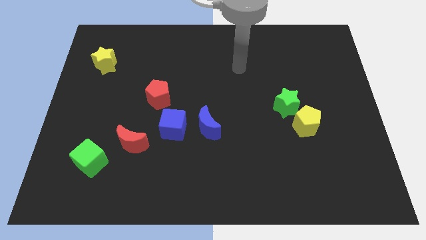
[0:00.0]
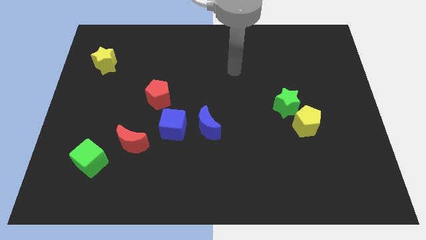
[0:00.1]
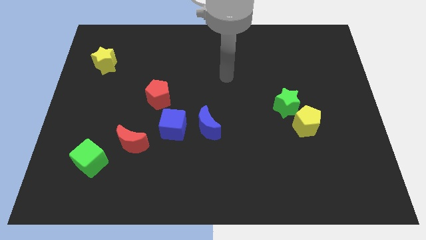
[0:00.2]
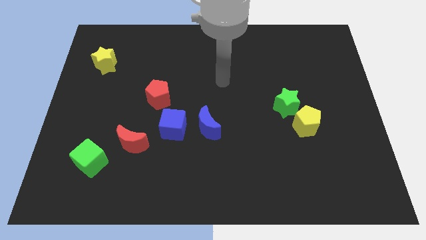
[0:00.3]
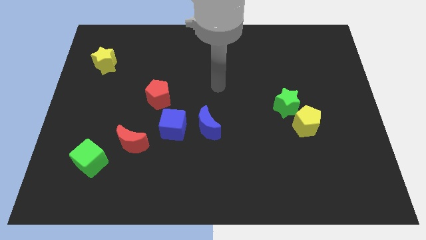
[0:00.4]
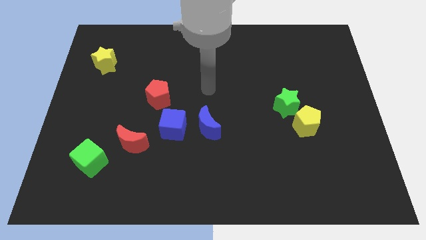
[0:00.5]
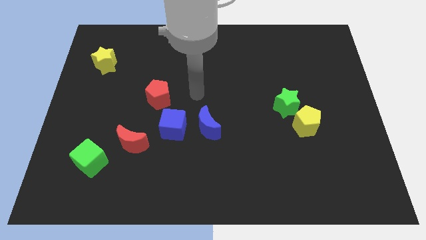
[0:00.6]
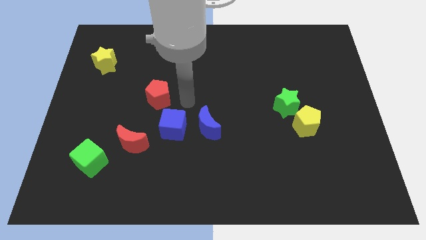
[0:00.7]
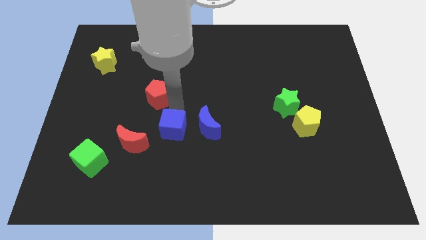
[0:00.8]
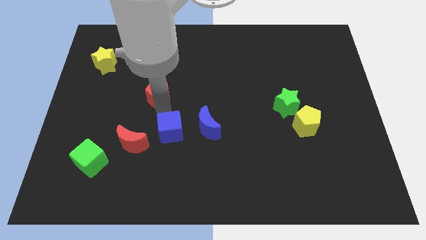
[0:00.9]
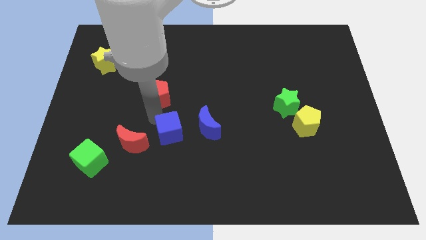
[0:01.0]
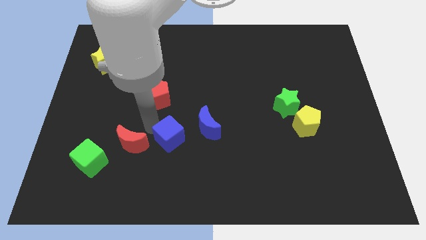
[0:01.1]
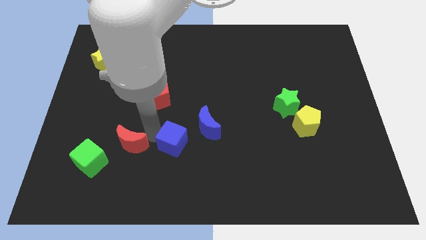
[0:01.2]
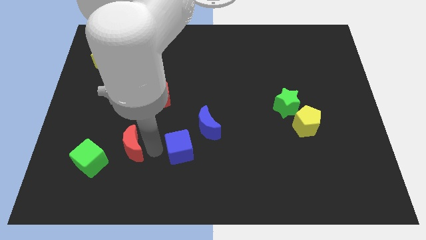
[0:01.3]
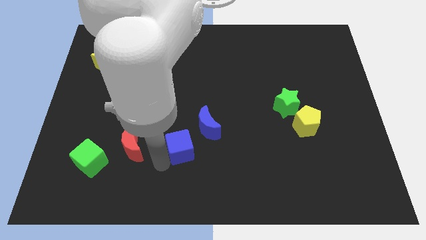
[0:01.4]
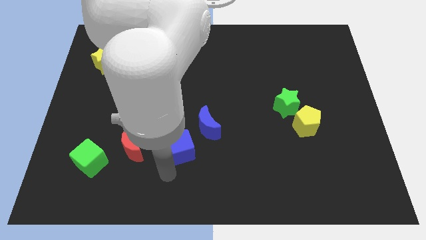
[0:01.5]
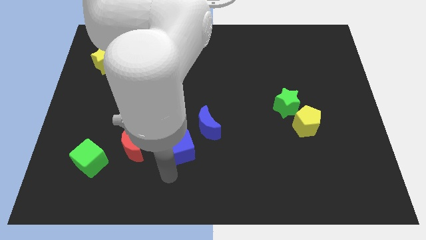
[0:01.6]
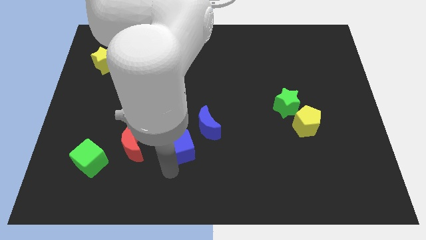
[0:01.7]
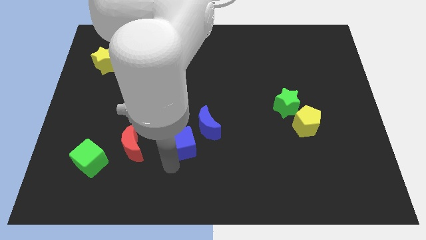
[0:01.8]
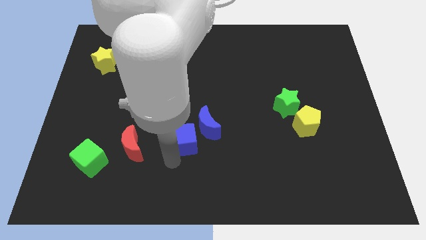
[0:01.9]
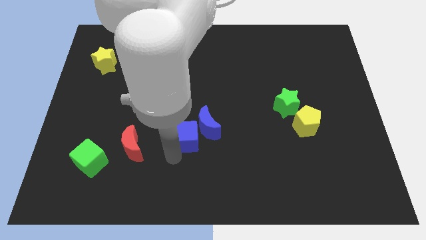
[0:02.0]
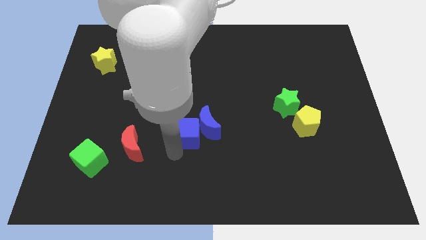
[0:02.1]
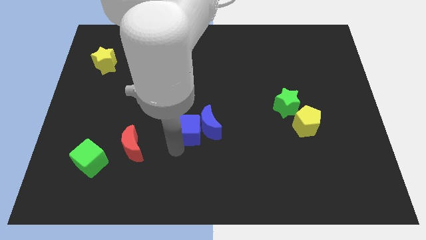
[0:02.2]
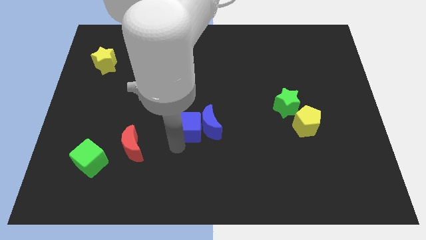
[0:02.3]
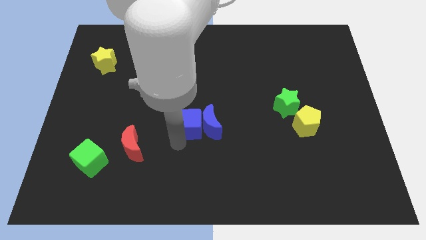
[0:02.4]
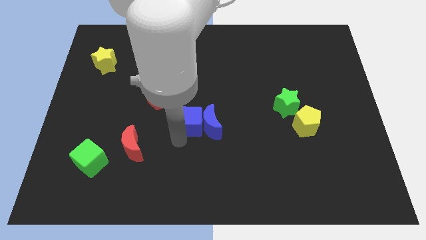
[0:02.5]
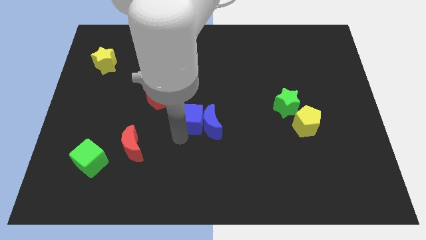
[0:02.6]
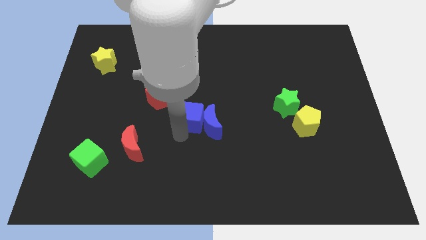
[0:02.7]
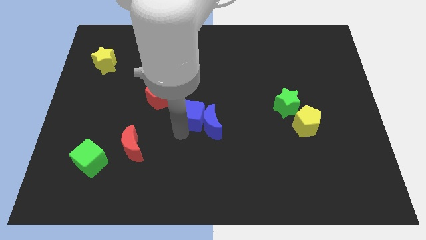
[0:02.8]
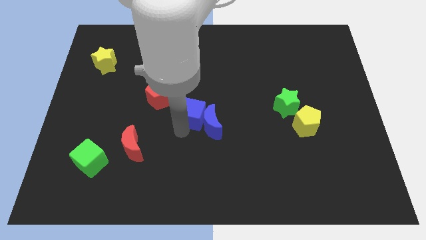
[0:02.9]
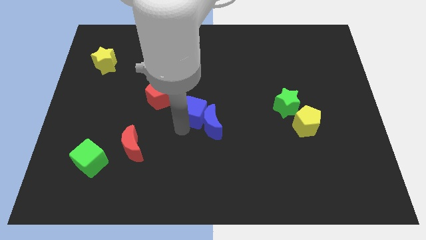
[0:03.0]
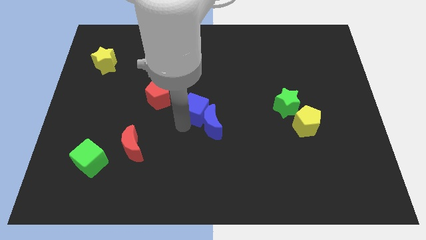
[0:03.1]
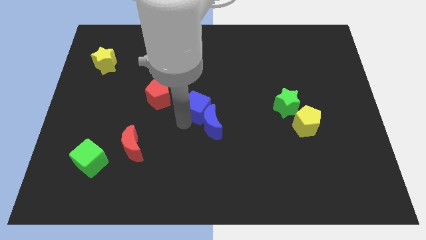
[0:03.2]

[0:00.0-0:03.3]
push the blue cube up and then right slightly

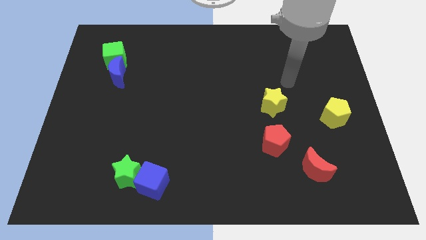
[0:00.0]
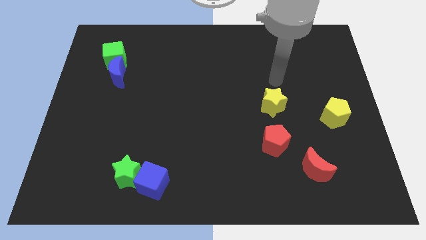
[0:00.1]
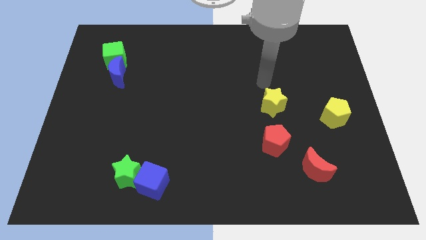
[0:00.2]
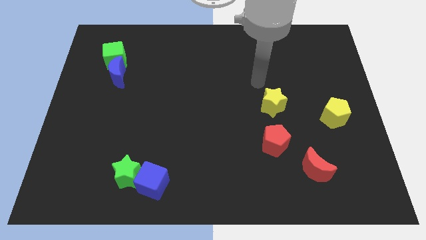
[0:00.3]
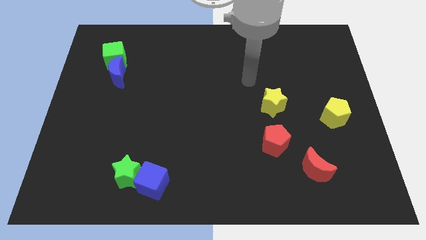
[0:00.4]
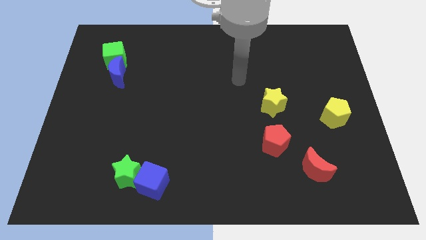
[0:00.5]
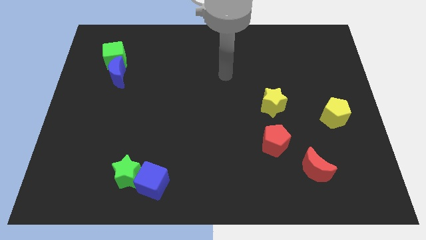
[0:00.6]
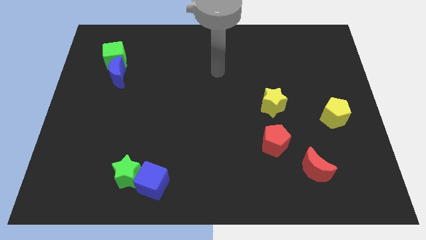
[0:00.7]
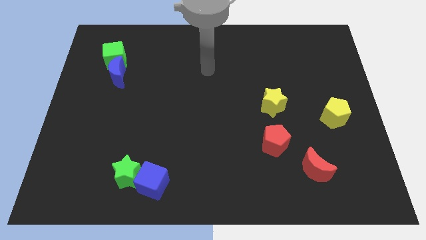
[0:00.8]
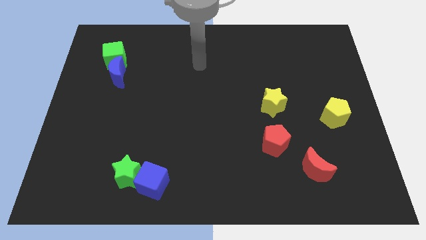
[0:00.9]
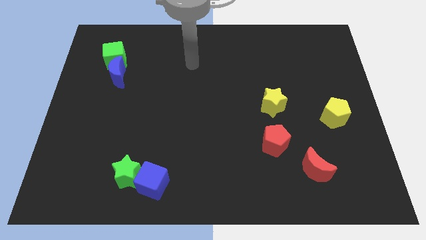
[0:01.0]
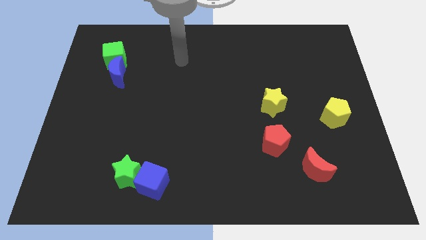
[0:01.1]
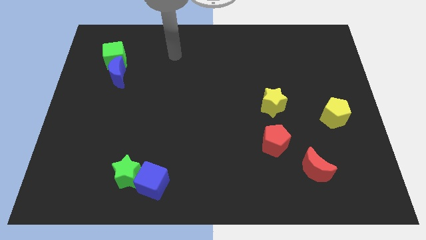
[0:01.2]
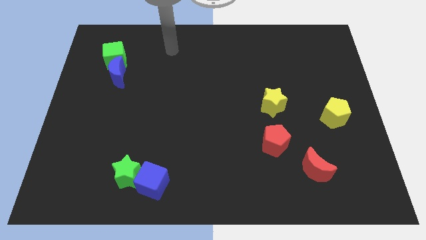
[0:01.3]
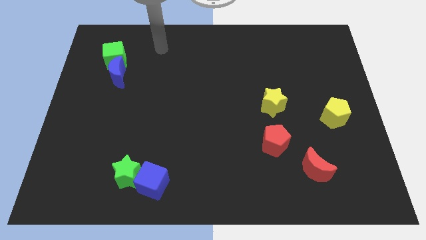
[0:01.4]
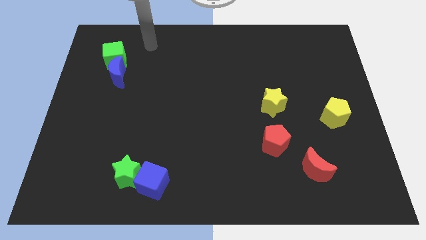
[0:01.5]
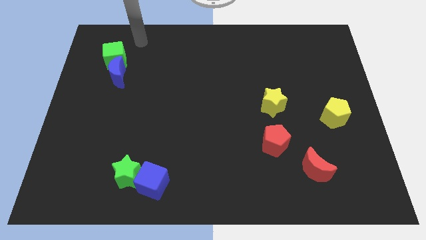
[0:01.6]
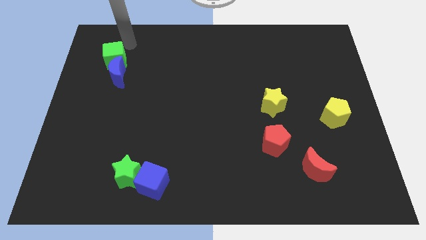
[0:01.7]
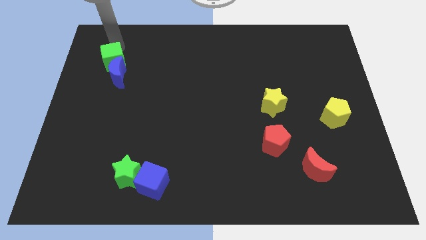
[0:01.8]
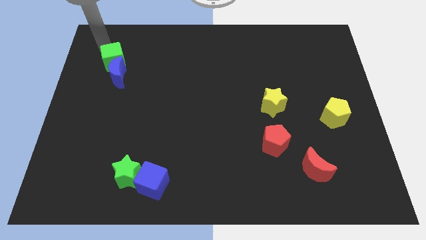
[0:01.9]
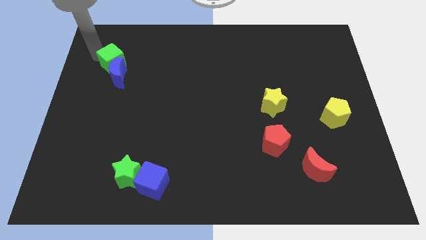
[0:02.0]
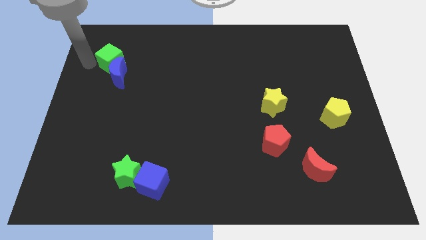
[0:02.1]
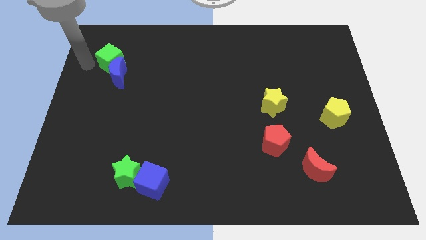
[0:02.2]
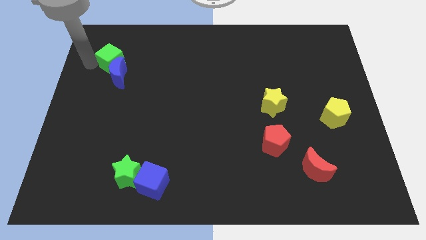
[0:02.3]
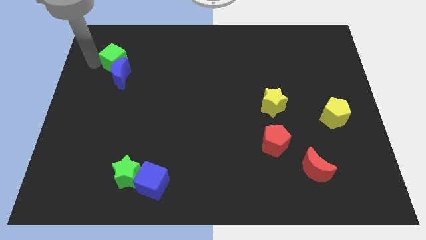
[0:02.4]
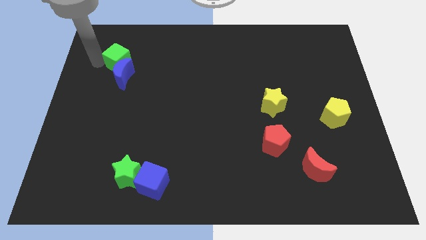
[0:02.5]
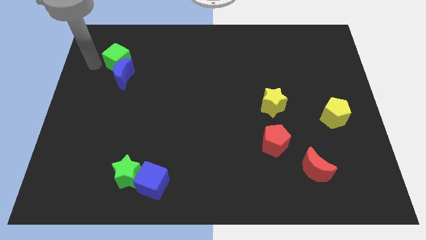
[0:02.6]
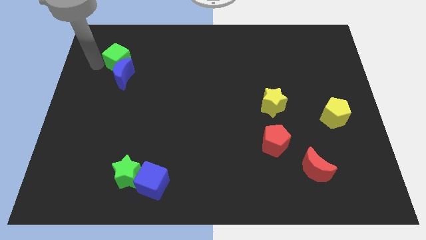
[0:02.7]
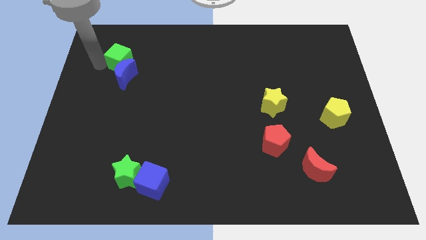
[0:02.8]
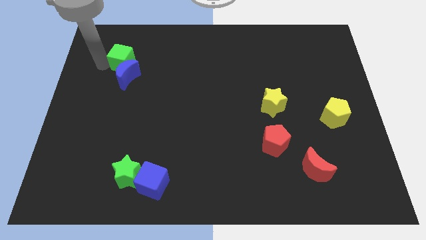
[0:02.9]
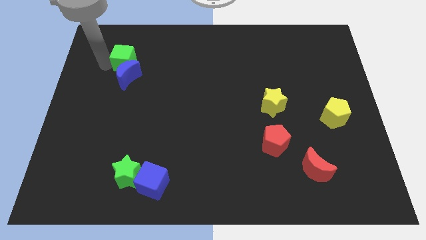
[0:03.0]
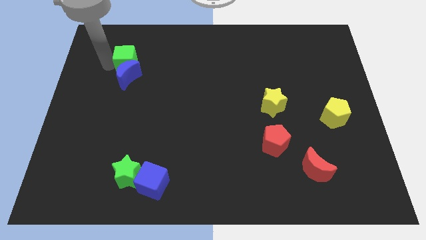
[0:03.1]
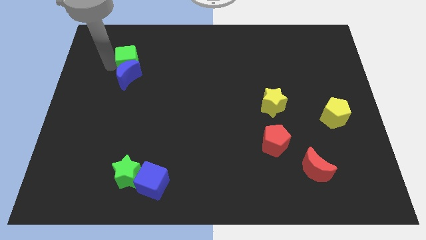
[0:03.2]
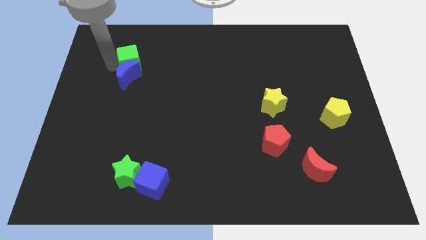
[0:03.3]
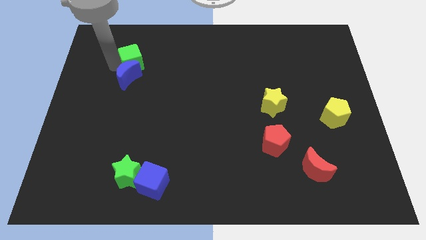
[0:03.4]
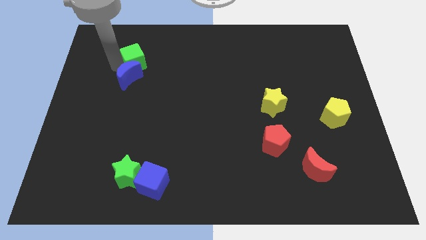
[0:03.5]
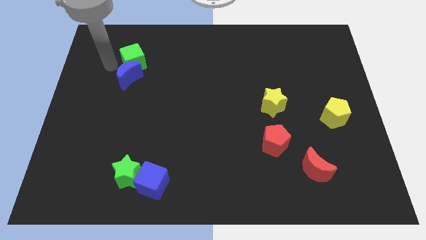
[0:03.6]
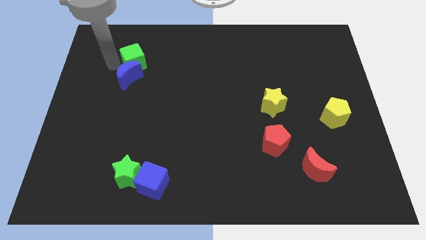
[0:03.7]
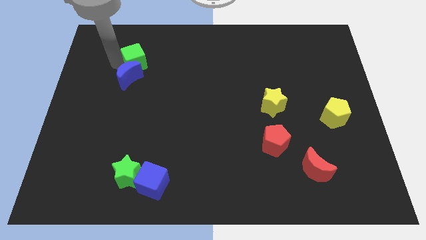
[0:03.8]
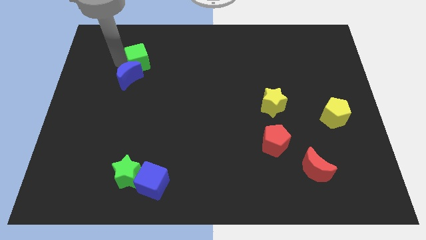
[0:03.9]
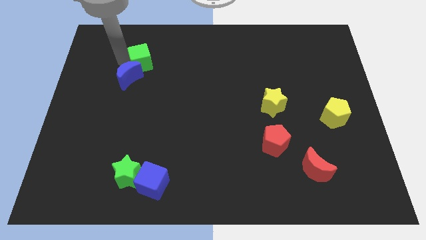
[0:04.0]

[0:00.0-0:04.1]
slightly move the green cube to the right

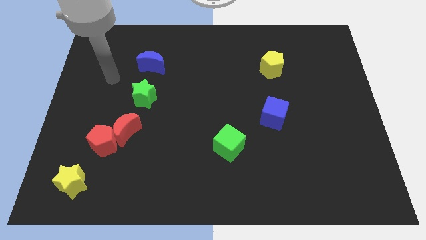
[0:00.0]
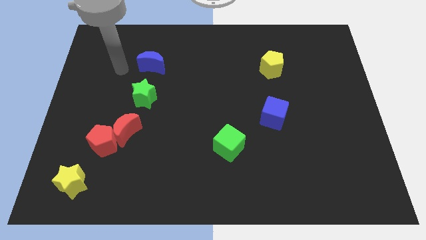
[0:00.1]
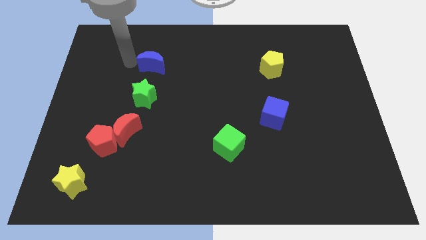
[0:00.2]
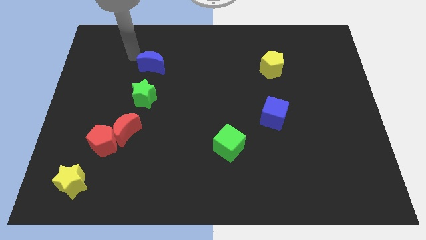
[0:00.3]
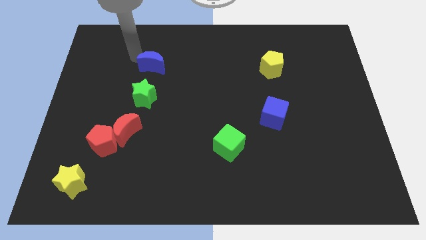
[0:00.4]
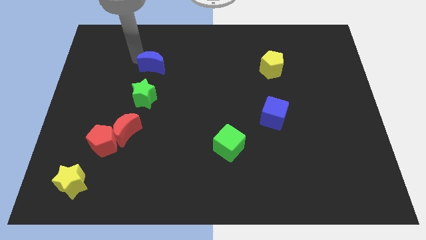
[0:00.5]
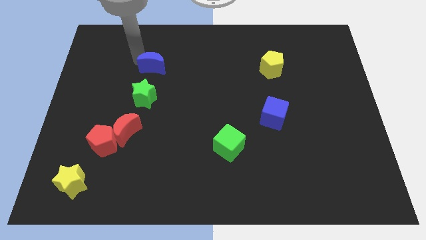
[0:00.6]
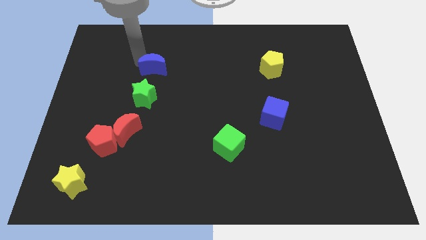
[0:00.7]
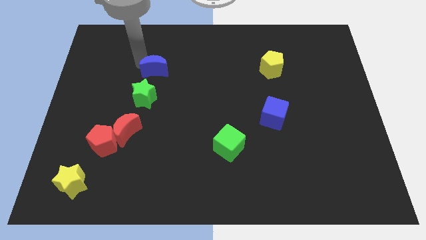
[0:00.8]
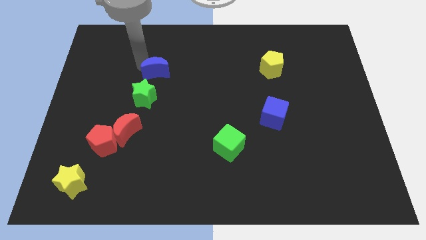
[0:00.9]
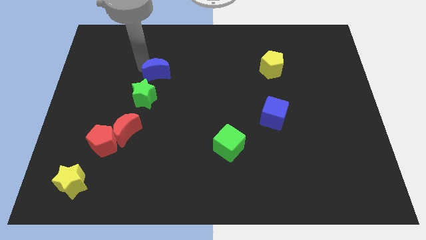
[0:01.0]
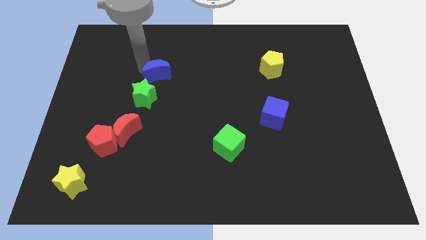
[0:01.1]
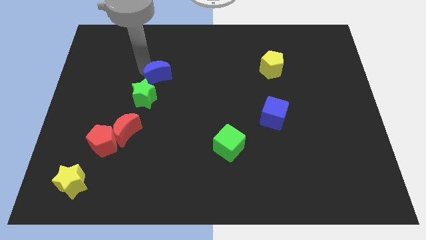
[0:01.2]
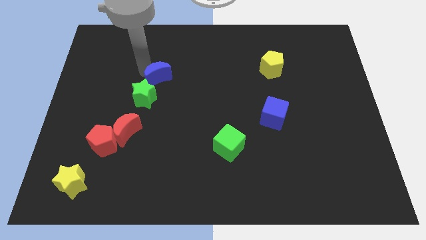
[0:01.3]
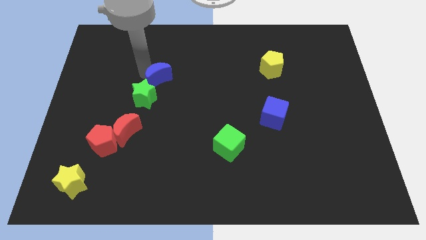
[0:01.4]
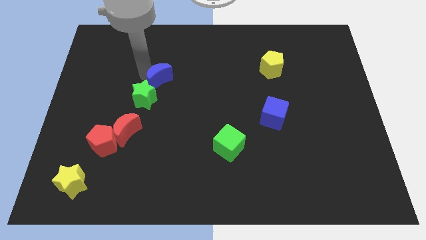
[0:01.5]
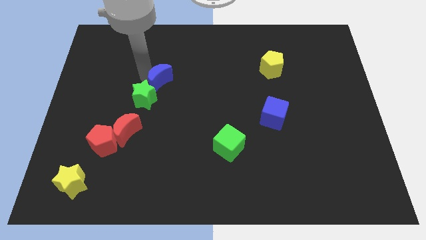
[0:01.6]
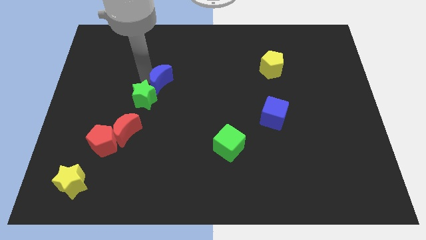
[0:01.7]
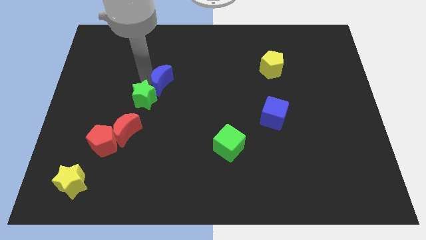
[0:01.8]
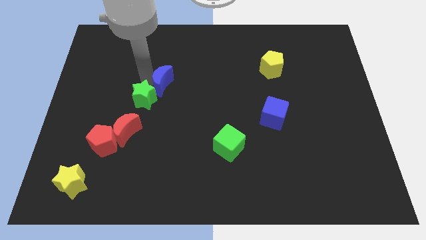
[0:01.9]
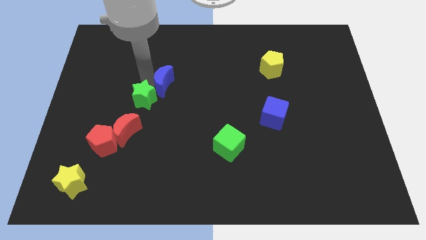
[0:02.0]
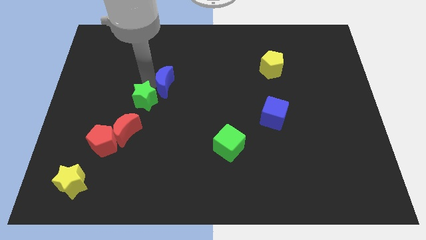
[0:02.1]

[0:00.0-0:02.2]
slightly slide the blue moon down and right diagonally
